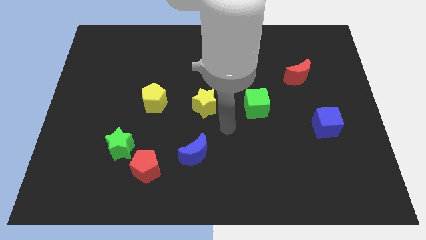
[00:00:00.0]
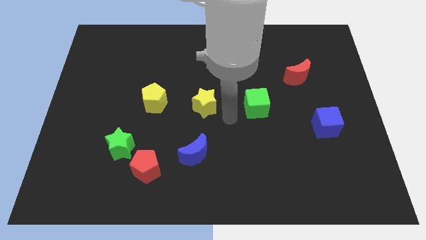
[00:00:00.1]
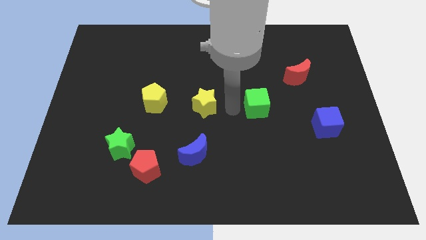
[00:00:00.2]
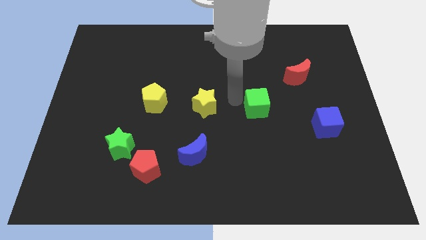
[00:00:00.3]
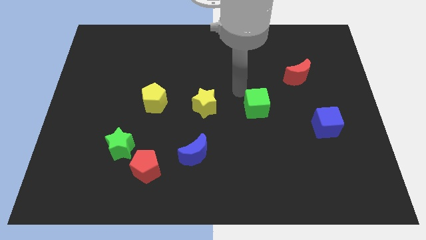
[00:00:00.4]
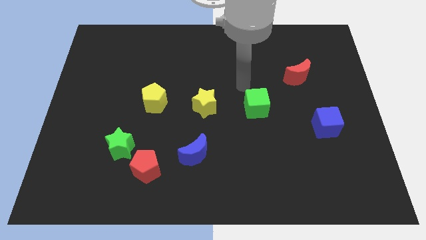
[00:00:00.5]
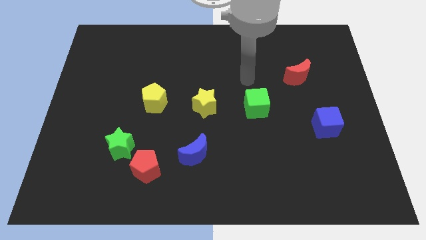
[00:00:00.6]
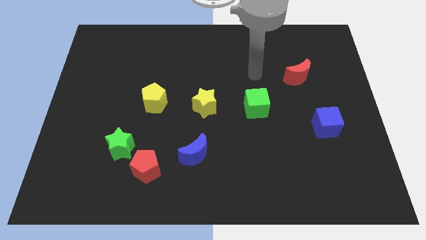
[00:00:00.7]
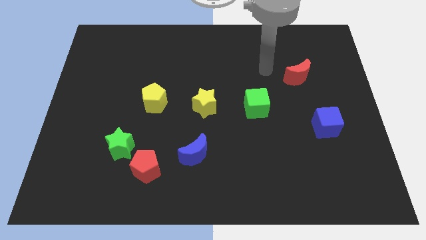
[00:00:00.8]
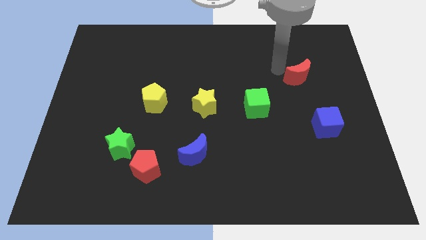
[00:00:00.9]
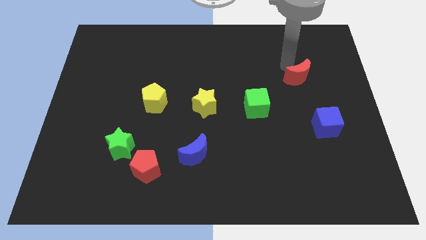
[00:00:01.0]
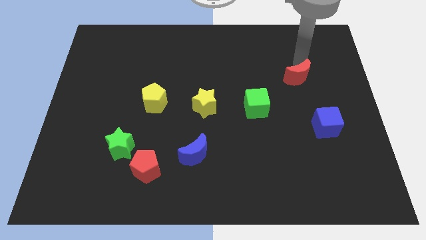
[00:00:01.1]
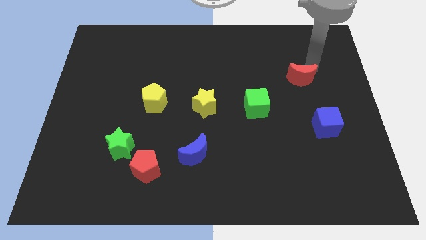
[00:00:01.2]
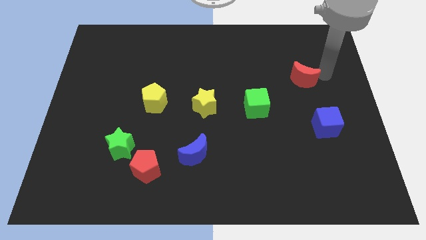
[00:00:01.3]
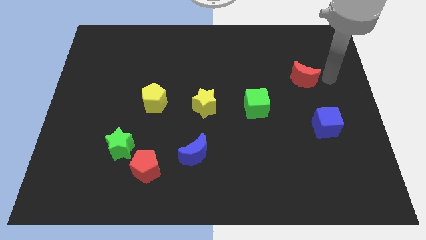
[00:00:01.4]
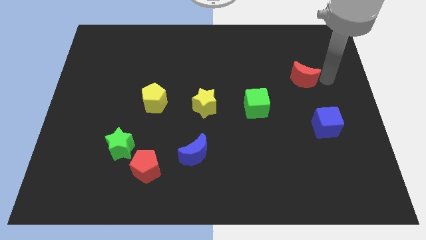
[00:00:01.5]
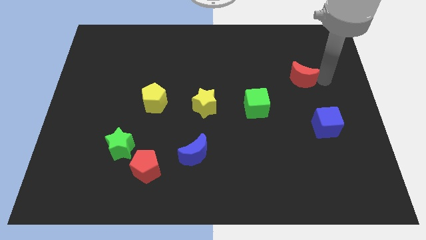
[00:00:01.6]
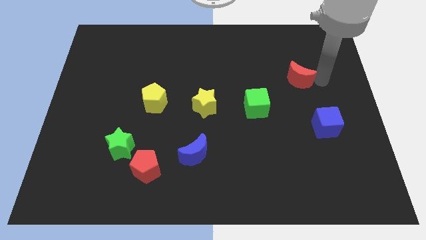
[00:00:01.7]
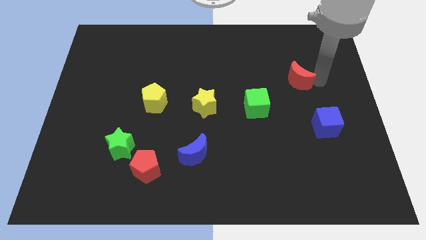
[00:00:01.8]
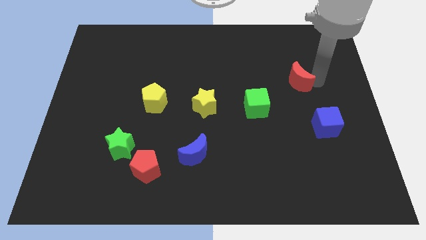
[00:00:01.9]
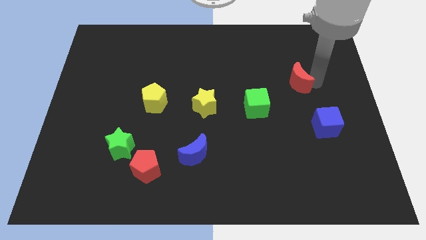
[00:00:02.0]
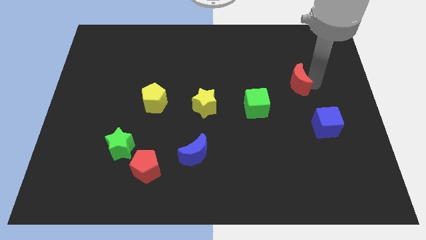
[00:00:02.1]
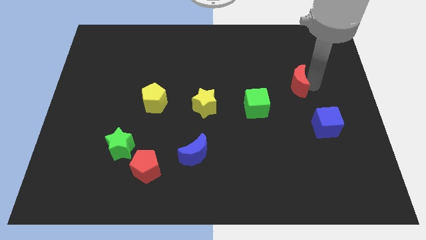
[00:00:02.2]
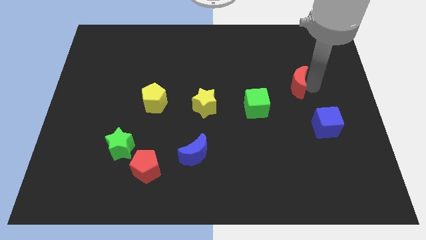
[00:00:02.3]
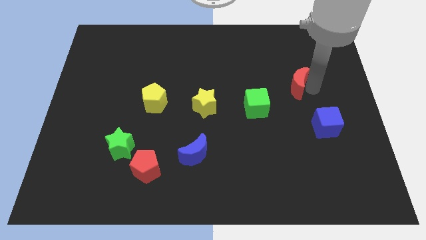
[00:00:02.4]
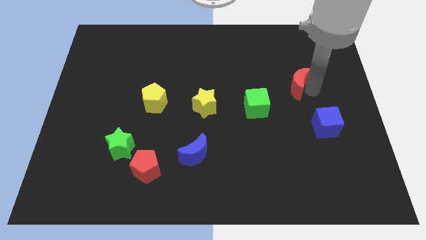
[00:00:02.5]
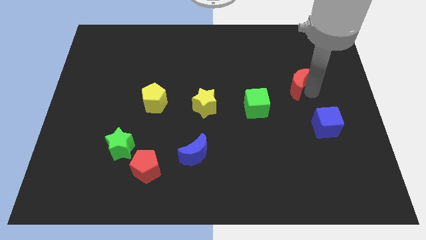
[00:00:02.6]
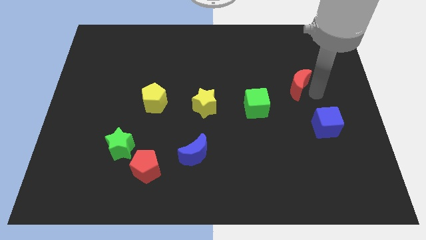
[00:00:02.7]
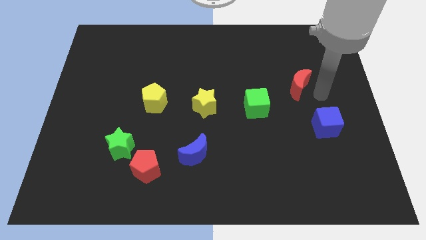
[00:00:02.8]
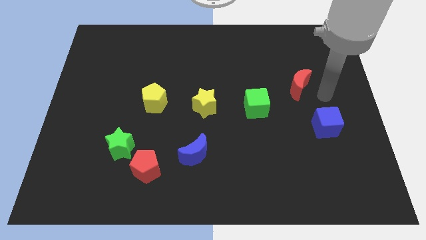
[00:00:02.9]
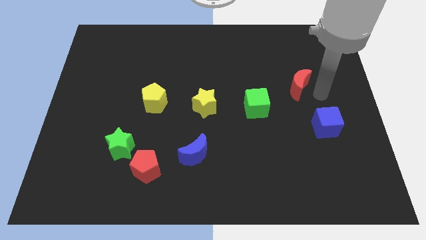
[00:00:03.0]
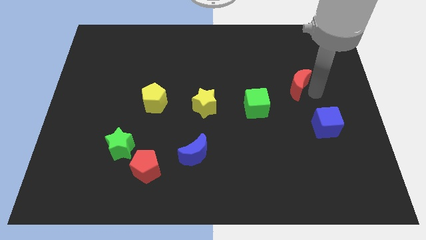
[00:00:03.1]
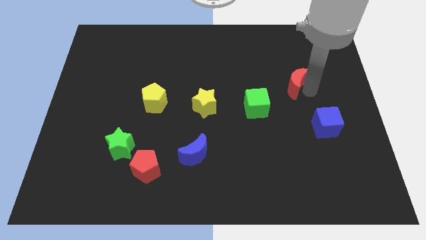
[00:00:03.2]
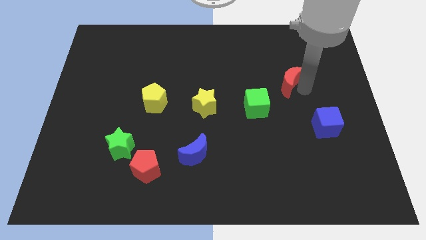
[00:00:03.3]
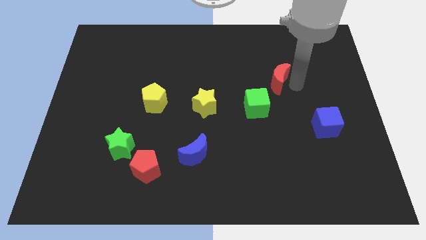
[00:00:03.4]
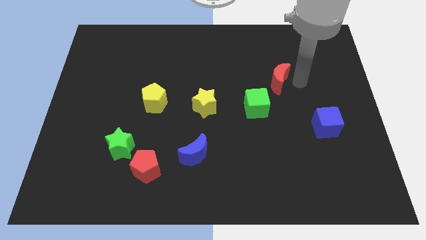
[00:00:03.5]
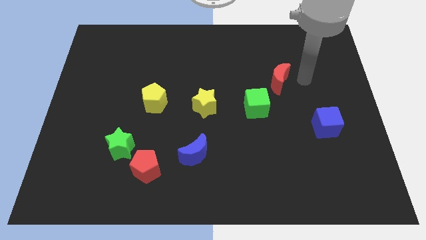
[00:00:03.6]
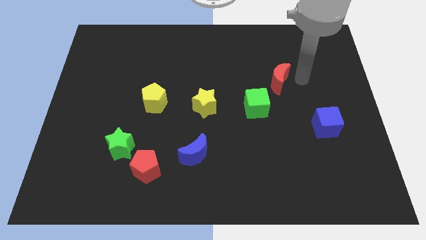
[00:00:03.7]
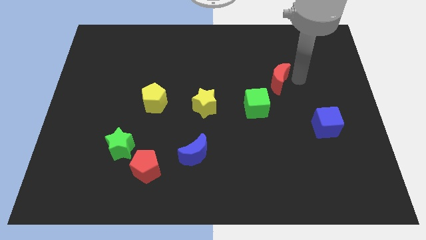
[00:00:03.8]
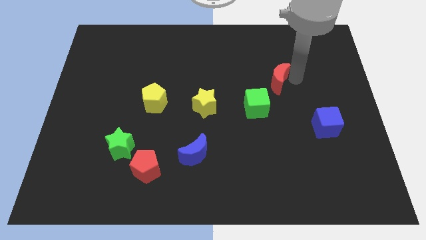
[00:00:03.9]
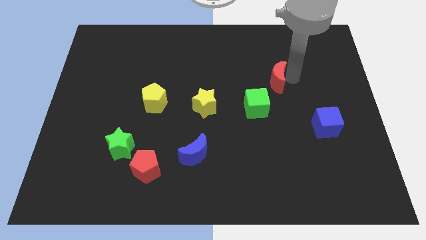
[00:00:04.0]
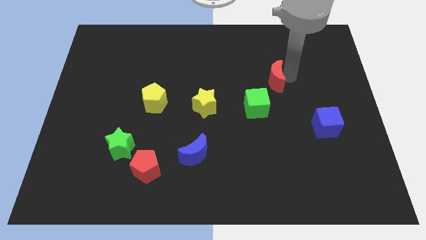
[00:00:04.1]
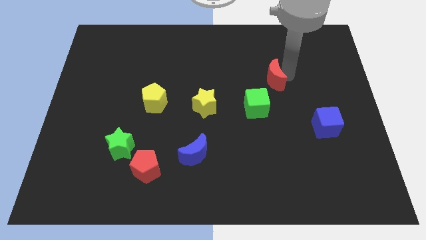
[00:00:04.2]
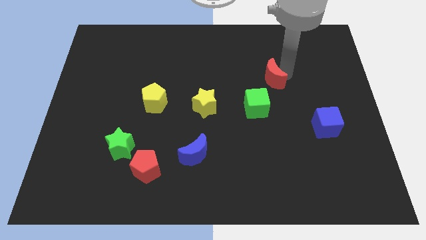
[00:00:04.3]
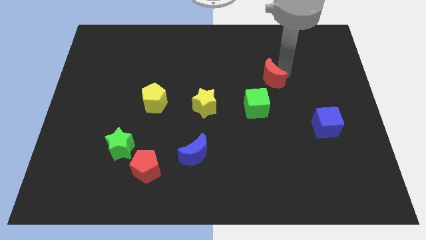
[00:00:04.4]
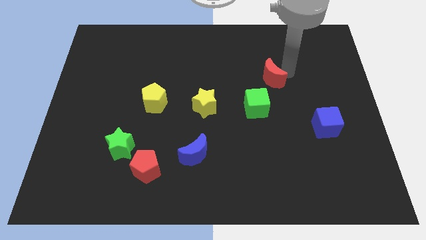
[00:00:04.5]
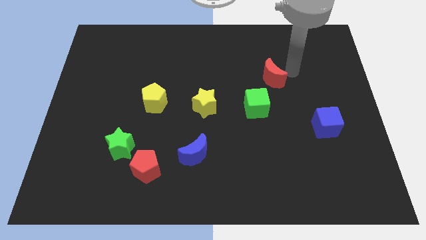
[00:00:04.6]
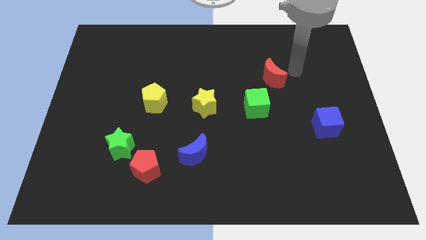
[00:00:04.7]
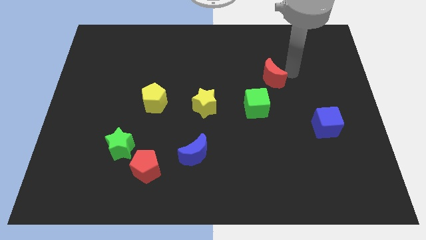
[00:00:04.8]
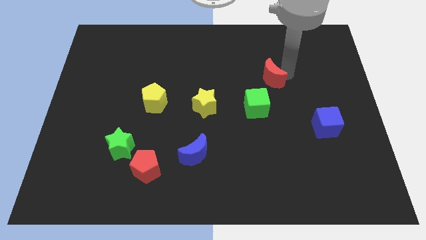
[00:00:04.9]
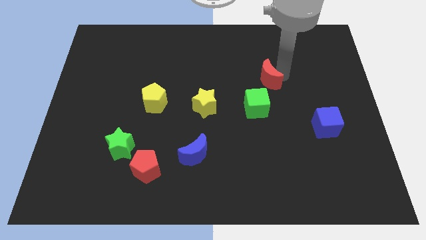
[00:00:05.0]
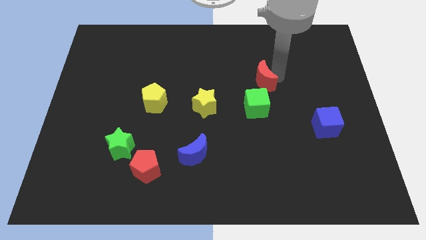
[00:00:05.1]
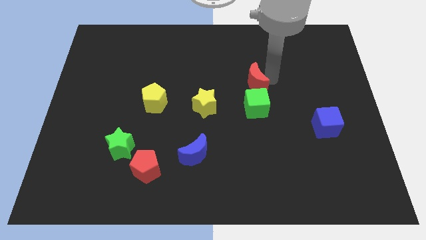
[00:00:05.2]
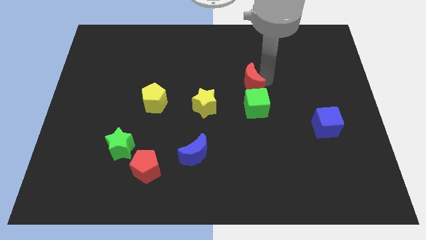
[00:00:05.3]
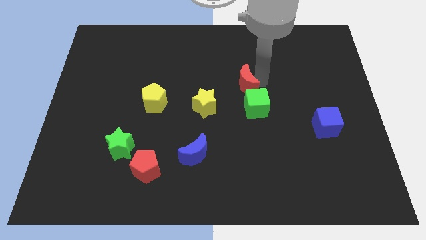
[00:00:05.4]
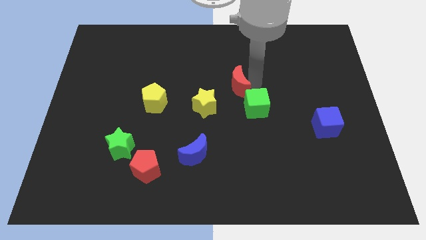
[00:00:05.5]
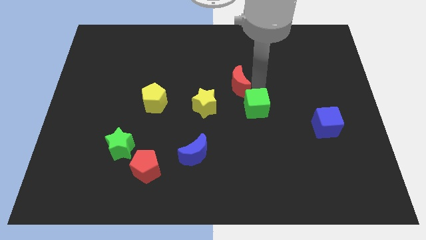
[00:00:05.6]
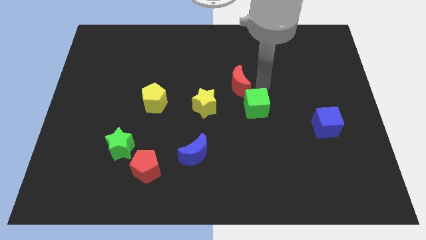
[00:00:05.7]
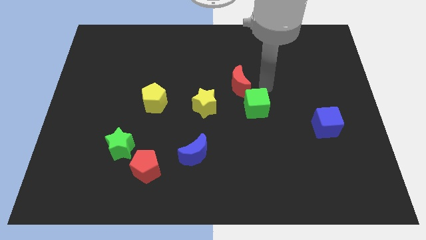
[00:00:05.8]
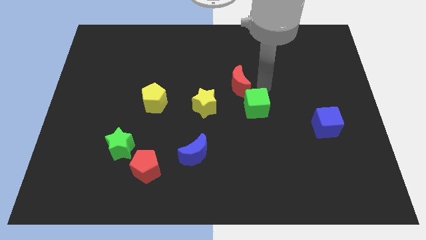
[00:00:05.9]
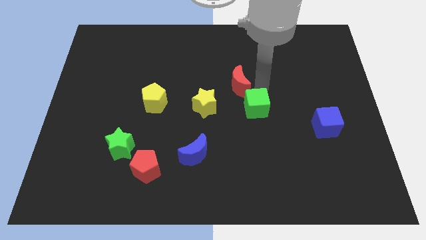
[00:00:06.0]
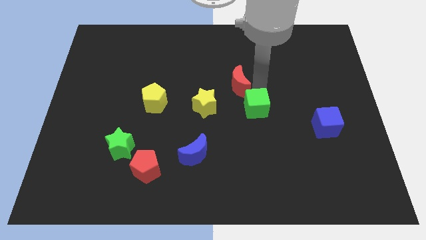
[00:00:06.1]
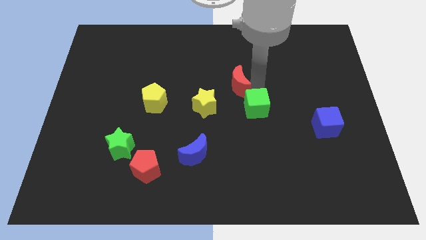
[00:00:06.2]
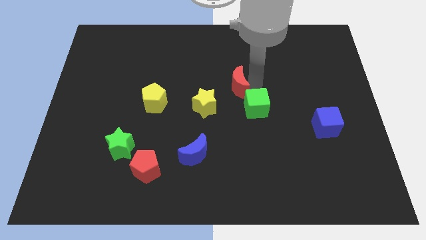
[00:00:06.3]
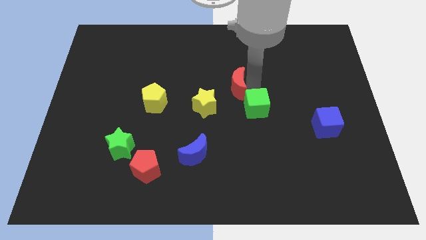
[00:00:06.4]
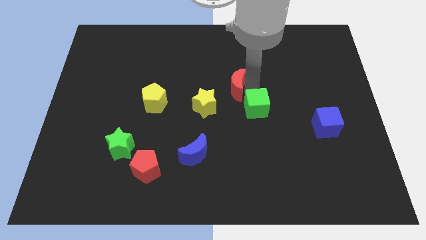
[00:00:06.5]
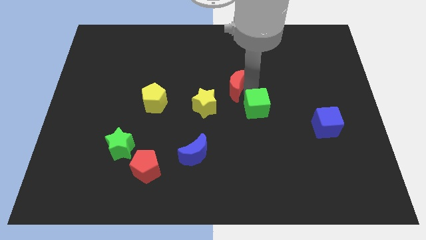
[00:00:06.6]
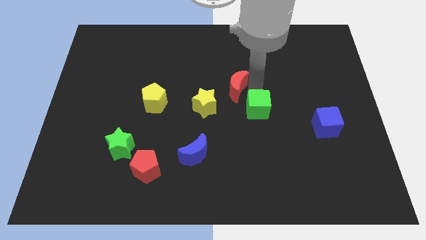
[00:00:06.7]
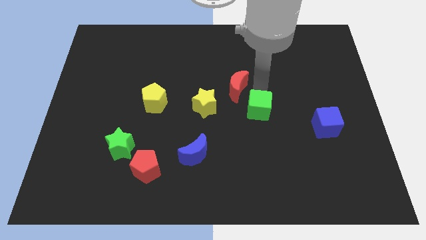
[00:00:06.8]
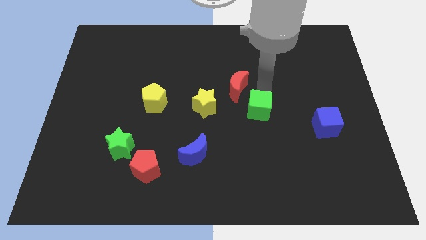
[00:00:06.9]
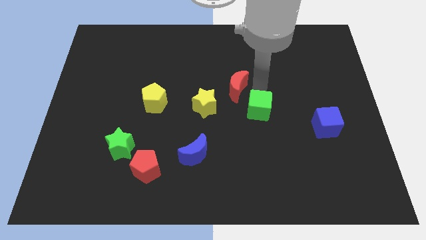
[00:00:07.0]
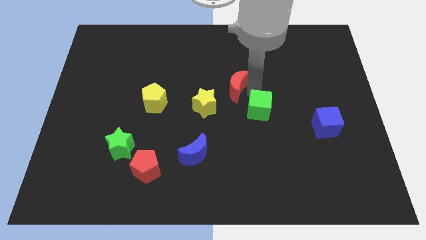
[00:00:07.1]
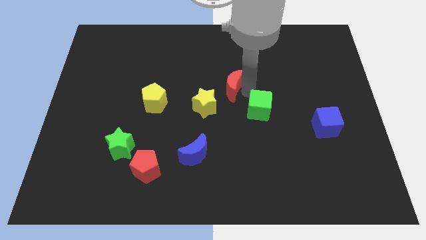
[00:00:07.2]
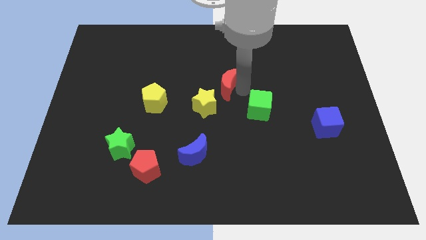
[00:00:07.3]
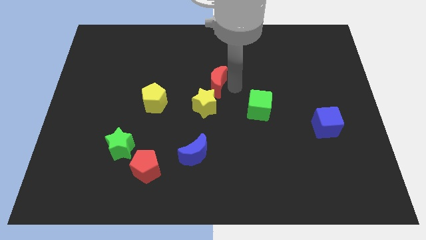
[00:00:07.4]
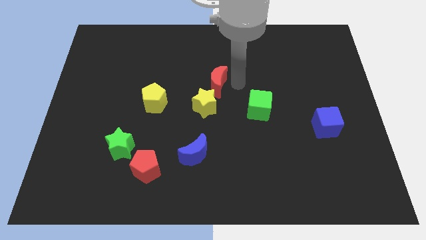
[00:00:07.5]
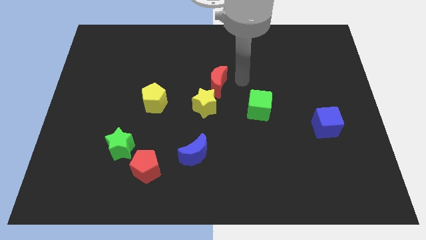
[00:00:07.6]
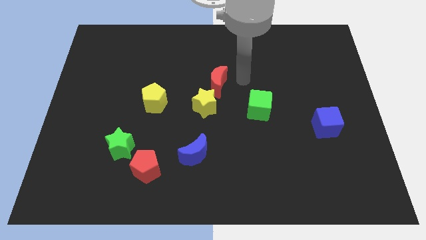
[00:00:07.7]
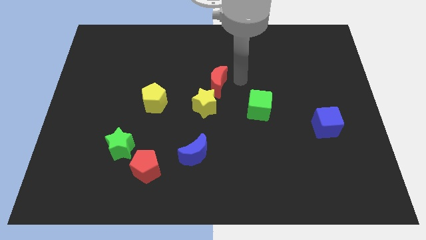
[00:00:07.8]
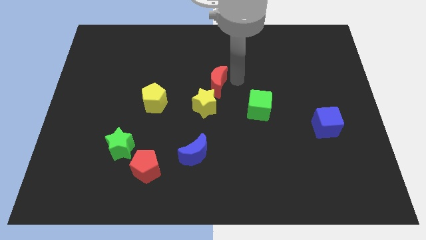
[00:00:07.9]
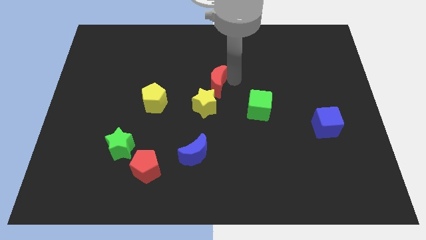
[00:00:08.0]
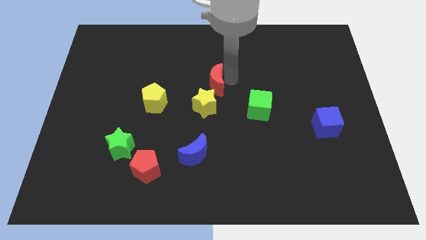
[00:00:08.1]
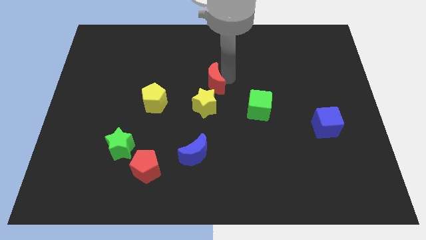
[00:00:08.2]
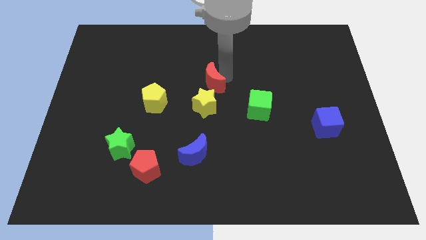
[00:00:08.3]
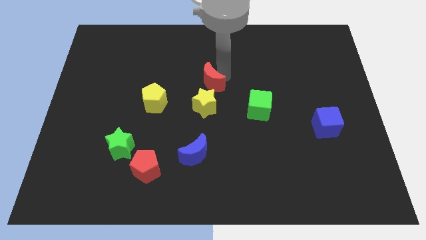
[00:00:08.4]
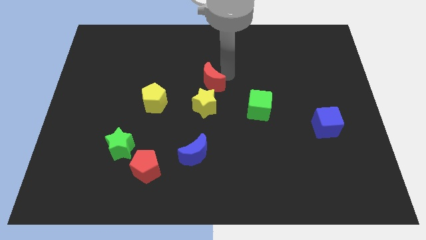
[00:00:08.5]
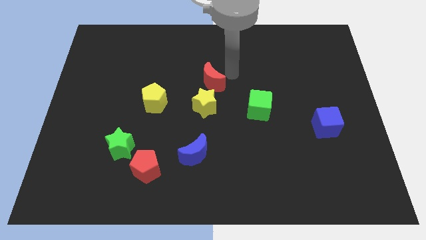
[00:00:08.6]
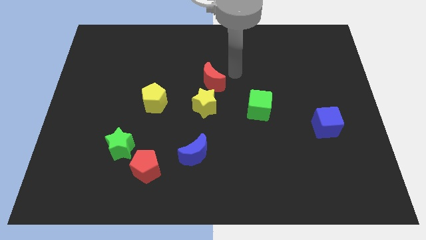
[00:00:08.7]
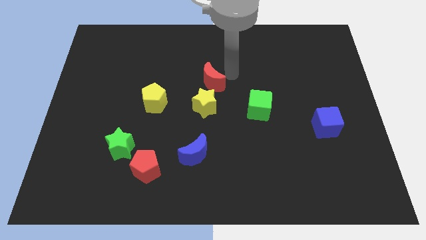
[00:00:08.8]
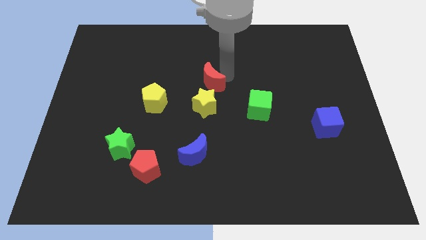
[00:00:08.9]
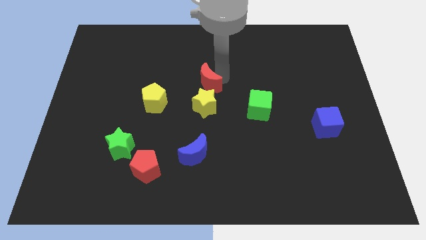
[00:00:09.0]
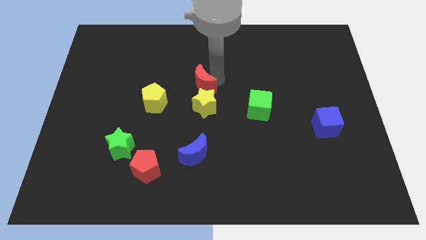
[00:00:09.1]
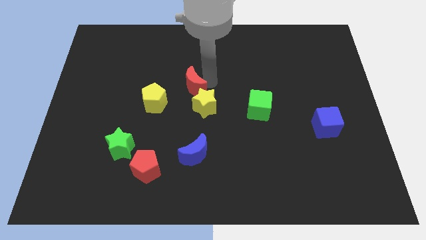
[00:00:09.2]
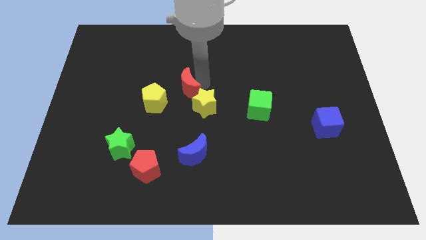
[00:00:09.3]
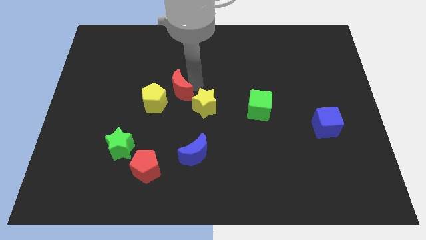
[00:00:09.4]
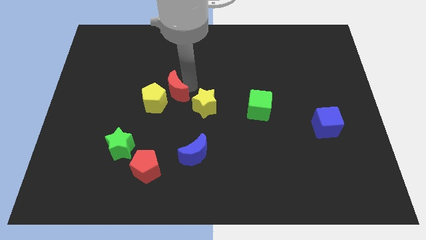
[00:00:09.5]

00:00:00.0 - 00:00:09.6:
push the red moon close to the yellow pentagon
